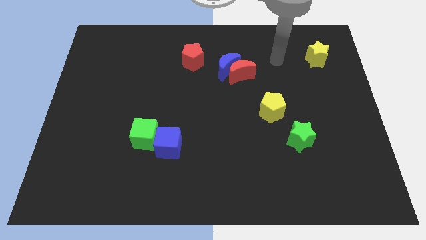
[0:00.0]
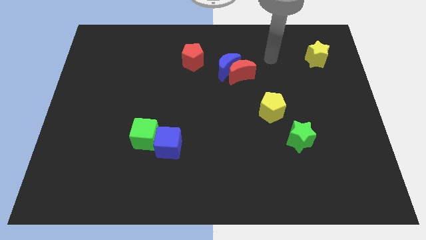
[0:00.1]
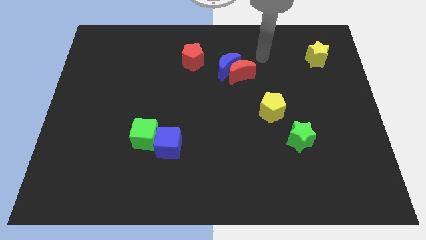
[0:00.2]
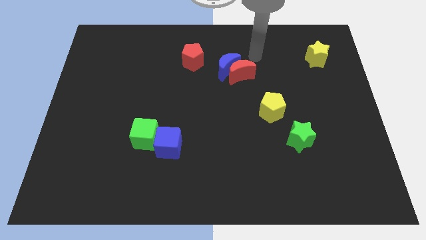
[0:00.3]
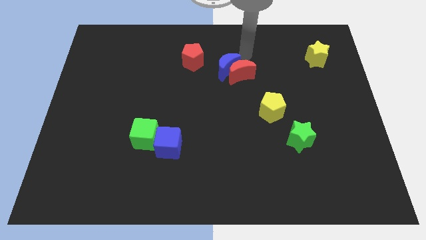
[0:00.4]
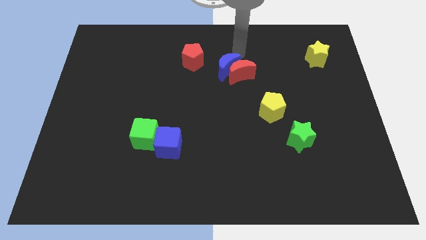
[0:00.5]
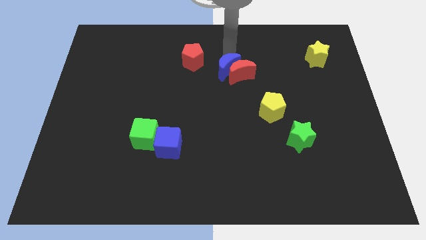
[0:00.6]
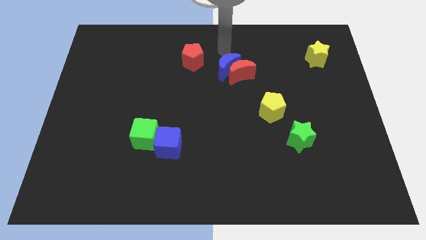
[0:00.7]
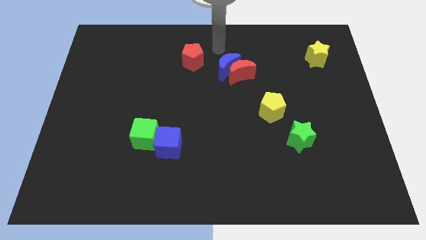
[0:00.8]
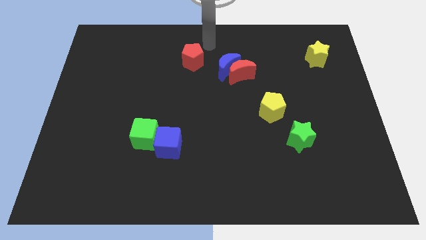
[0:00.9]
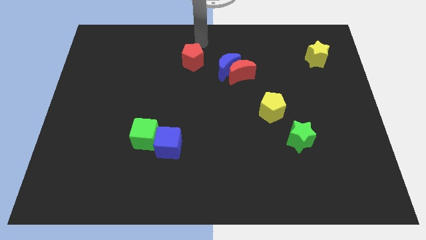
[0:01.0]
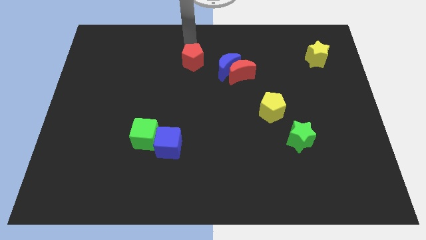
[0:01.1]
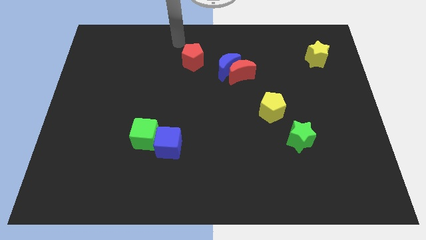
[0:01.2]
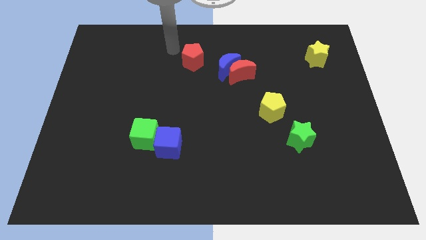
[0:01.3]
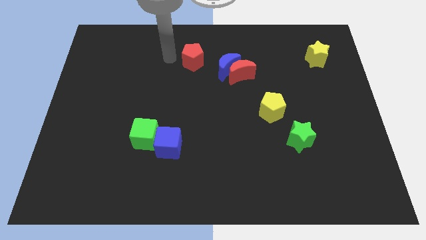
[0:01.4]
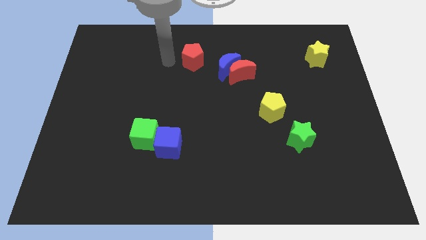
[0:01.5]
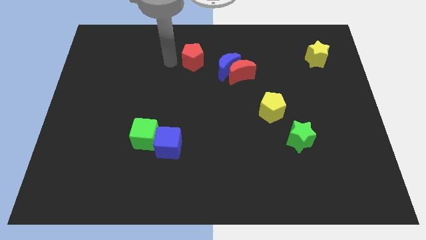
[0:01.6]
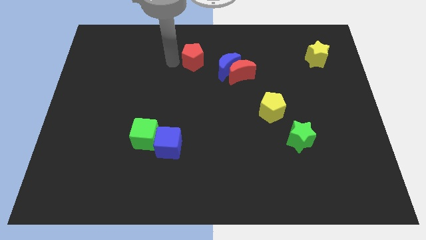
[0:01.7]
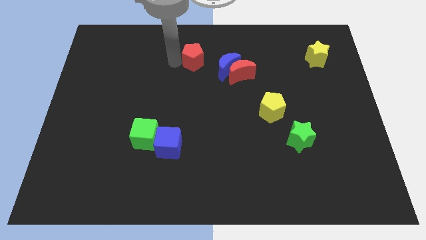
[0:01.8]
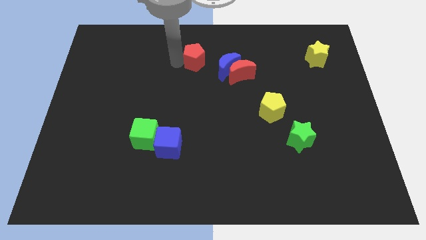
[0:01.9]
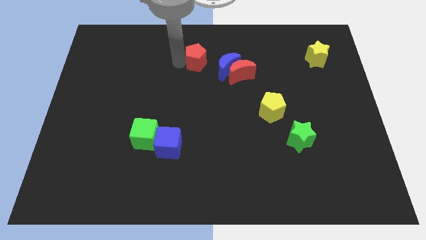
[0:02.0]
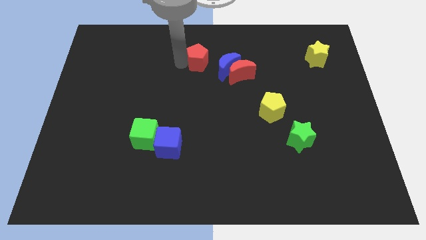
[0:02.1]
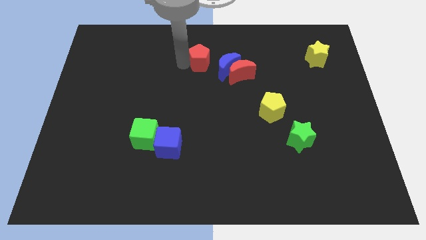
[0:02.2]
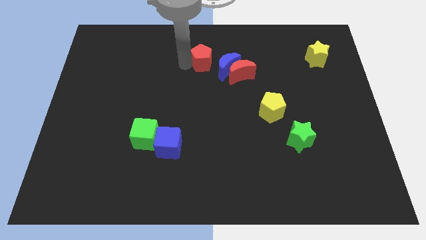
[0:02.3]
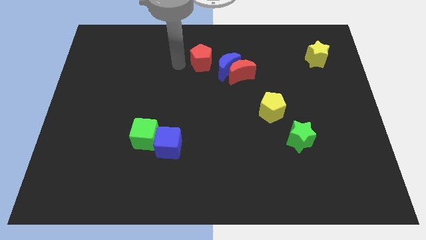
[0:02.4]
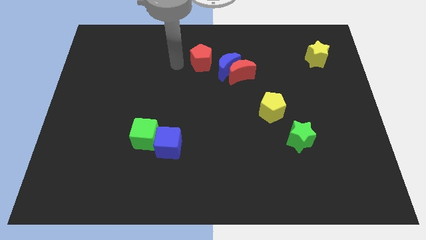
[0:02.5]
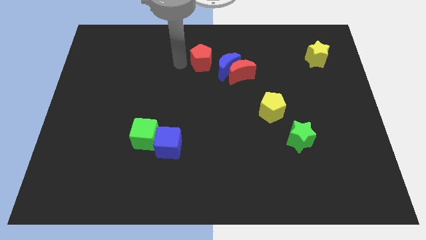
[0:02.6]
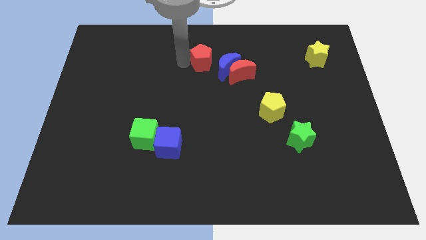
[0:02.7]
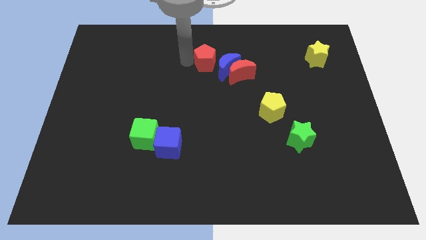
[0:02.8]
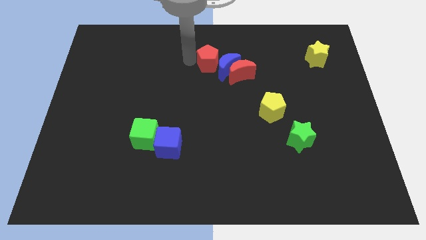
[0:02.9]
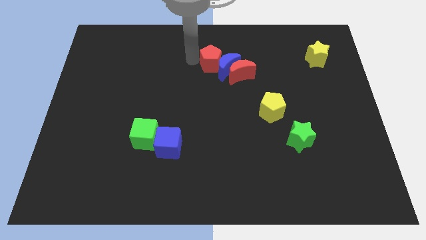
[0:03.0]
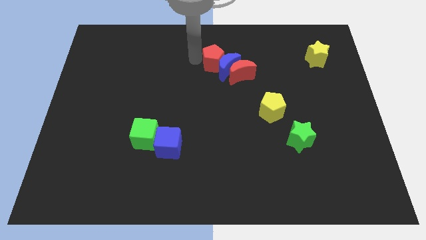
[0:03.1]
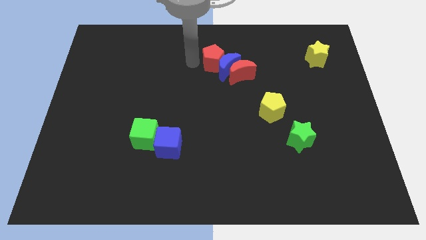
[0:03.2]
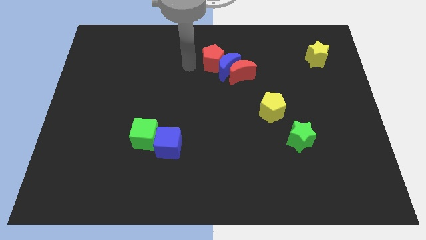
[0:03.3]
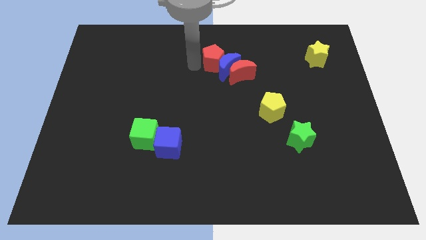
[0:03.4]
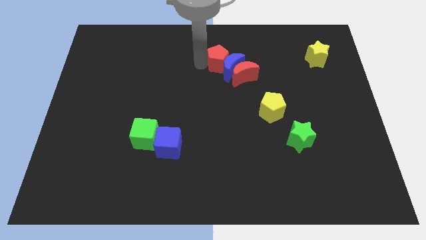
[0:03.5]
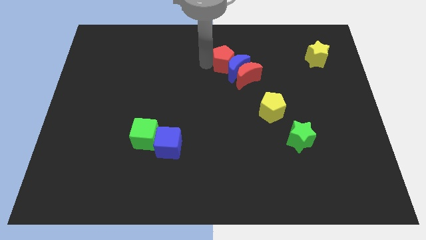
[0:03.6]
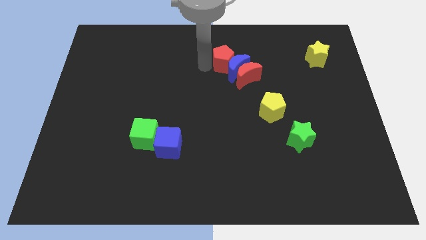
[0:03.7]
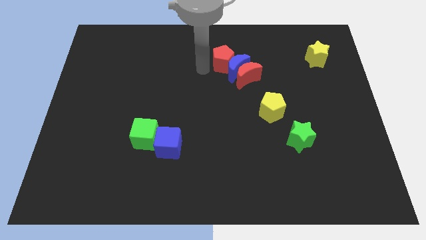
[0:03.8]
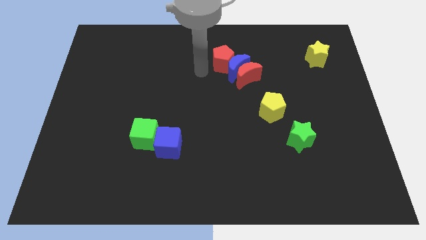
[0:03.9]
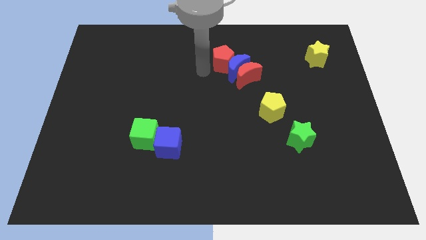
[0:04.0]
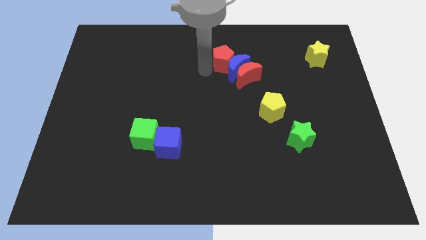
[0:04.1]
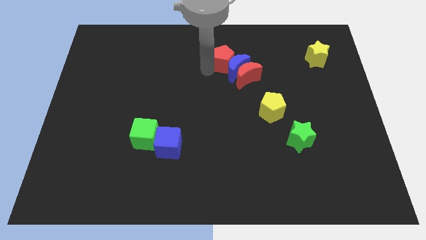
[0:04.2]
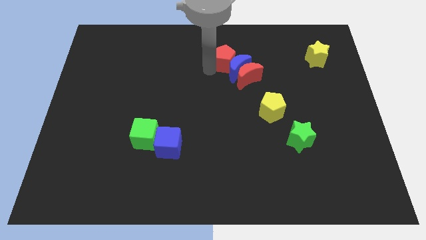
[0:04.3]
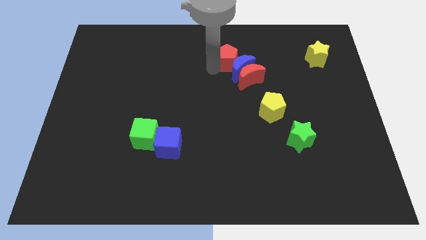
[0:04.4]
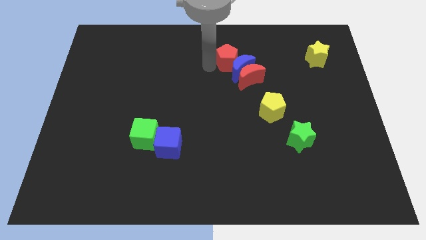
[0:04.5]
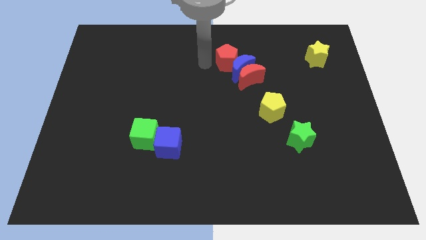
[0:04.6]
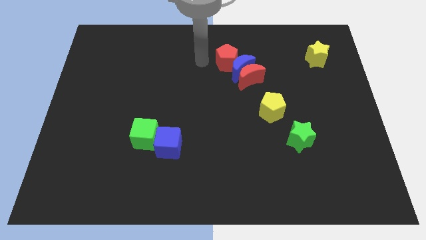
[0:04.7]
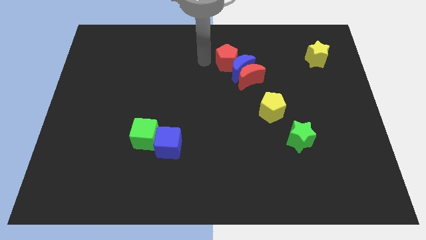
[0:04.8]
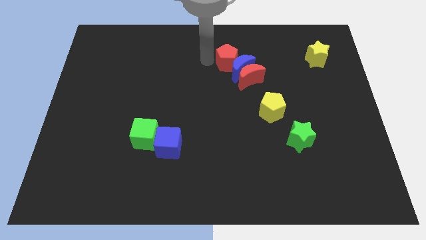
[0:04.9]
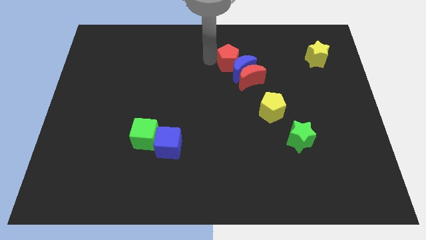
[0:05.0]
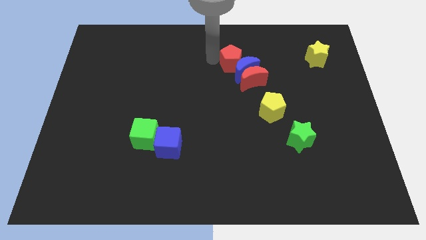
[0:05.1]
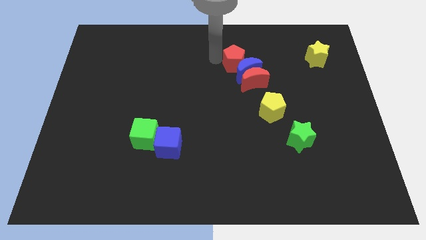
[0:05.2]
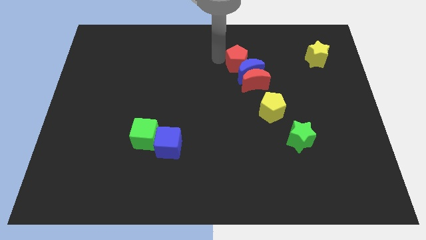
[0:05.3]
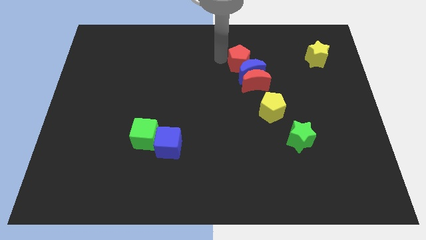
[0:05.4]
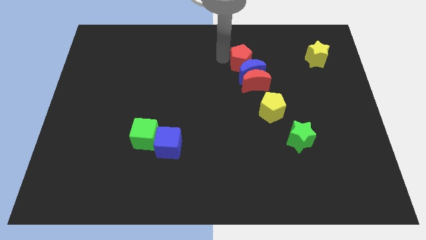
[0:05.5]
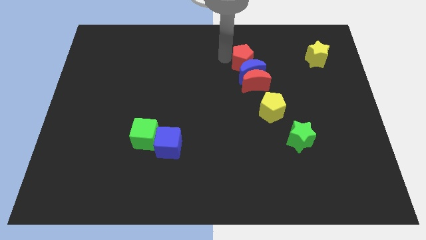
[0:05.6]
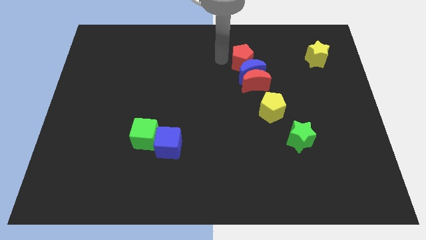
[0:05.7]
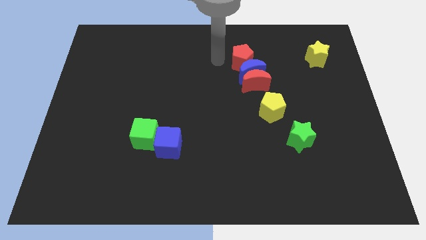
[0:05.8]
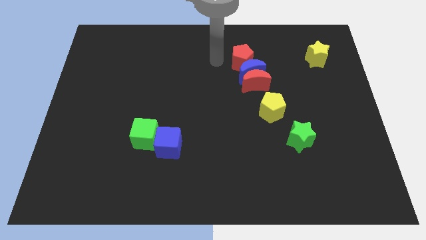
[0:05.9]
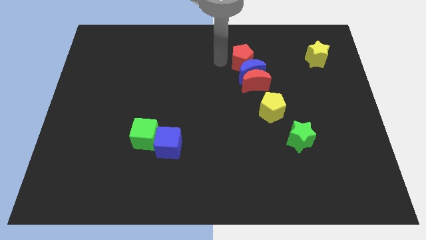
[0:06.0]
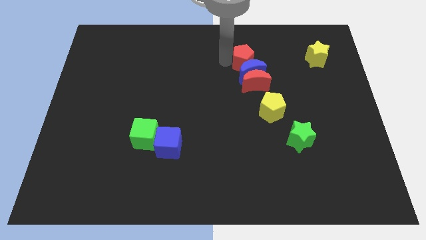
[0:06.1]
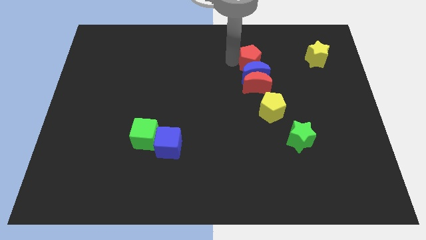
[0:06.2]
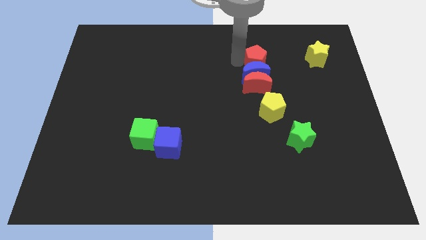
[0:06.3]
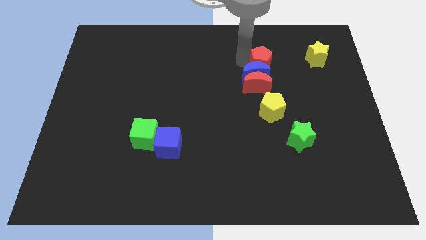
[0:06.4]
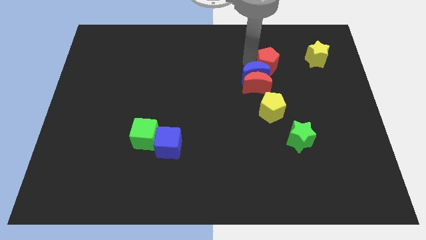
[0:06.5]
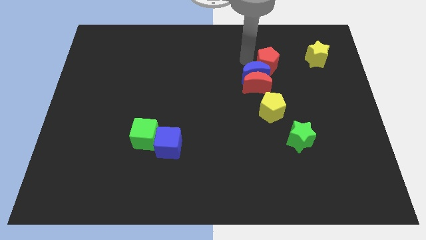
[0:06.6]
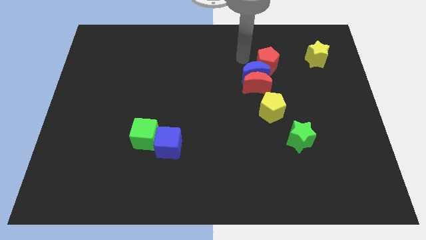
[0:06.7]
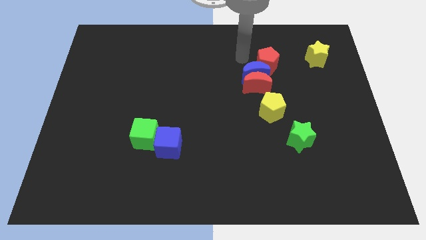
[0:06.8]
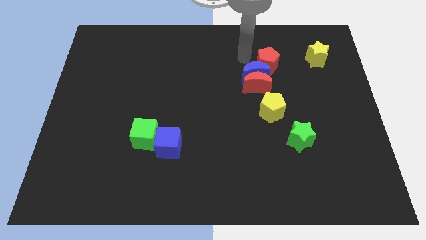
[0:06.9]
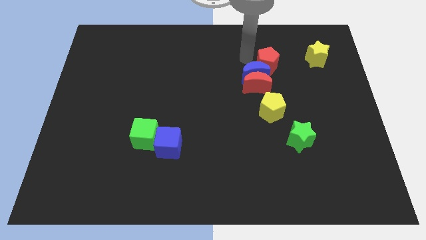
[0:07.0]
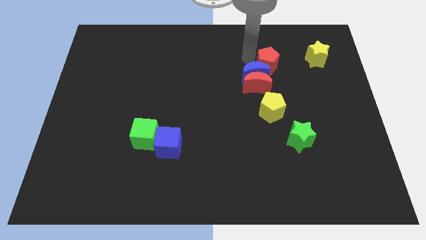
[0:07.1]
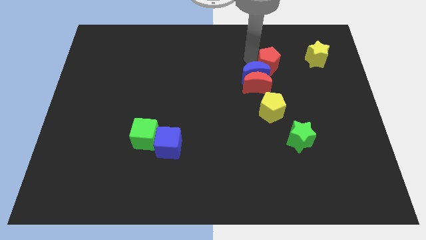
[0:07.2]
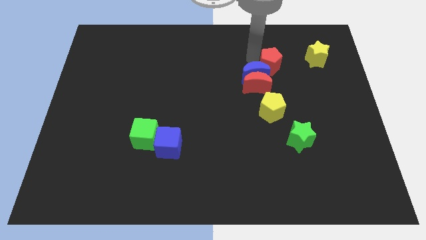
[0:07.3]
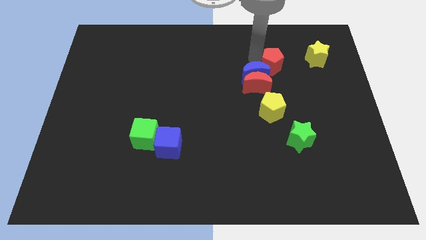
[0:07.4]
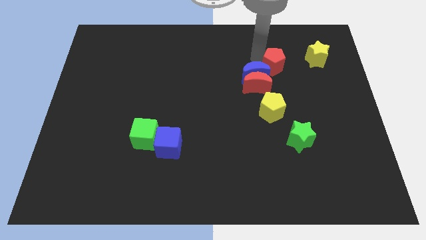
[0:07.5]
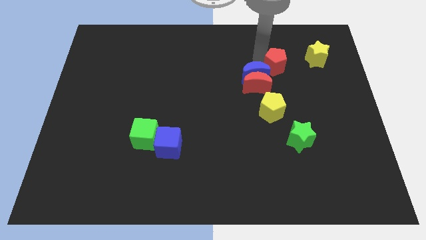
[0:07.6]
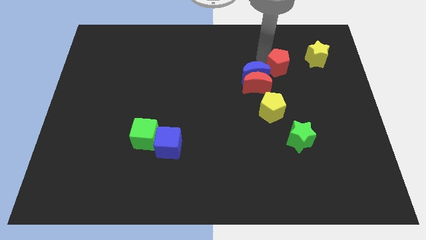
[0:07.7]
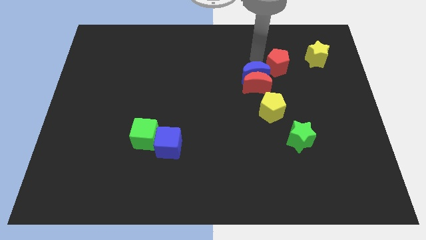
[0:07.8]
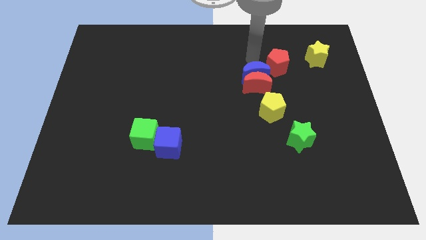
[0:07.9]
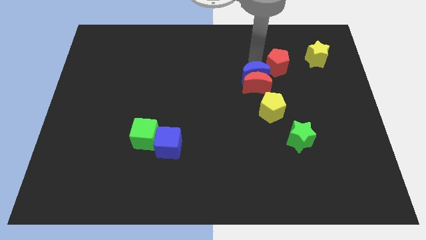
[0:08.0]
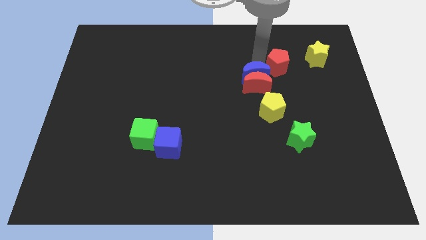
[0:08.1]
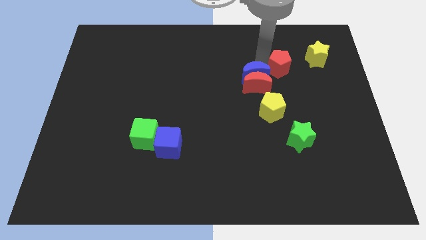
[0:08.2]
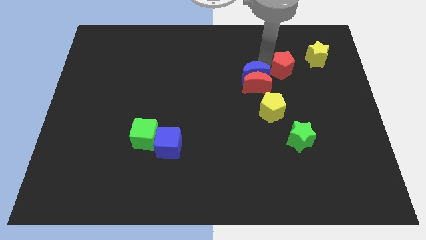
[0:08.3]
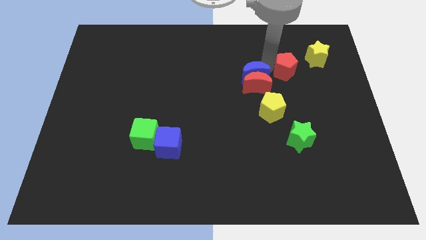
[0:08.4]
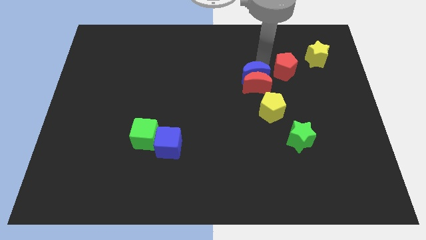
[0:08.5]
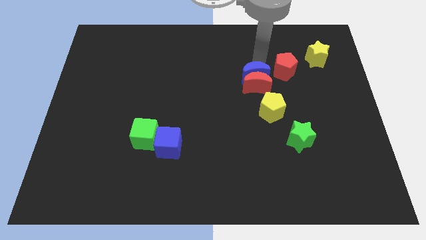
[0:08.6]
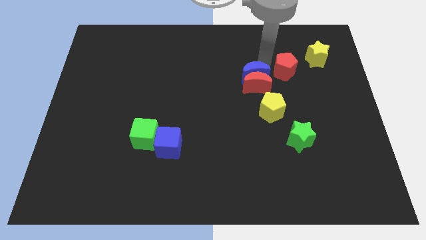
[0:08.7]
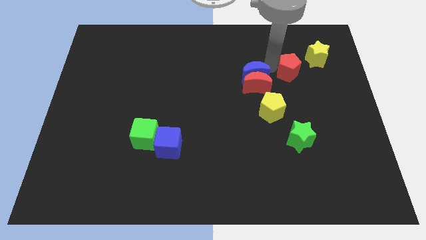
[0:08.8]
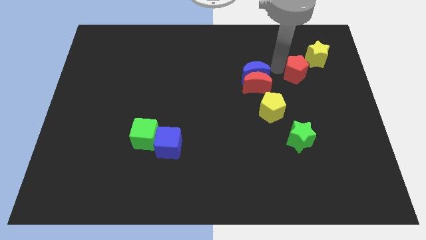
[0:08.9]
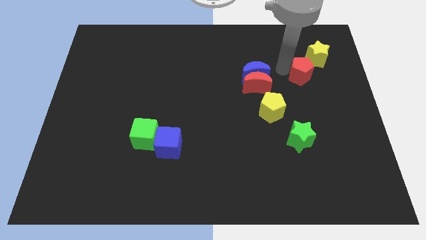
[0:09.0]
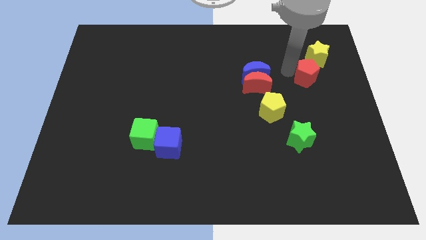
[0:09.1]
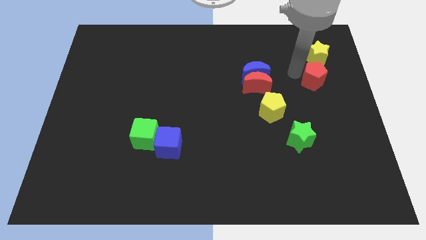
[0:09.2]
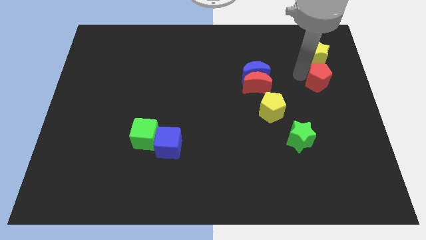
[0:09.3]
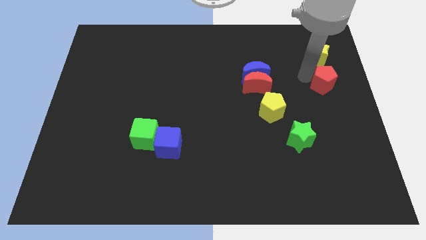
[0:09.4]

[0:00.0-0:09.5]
put the red pentagon to the center right
